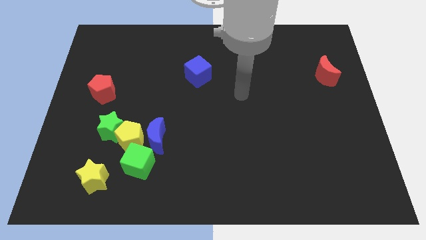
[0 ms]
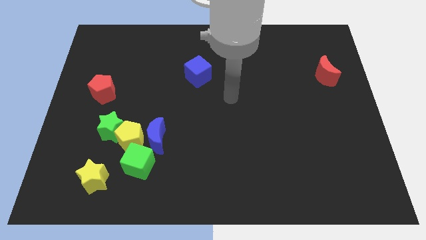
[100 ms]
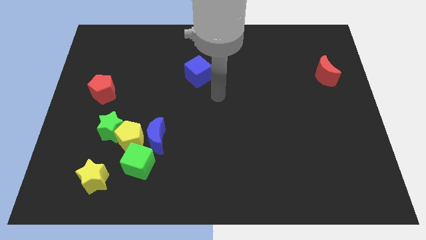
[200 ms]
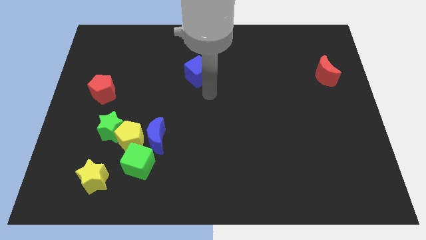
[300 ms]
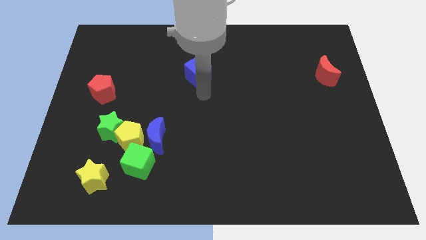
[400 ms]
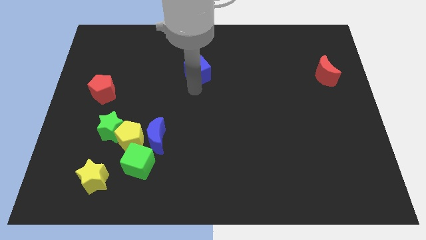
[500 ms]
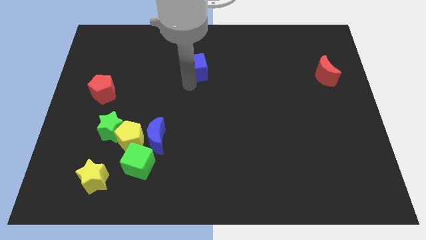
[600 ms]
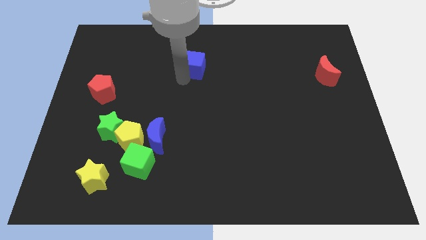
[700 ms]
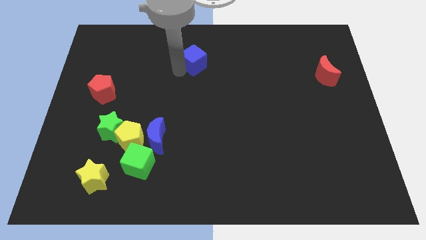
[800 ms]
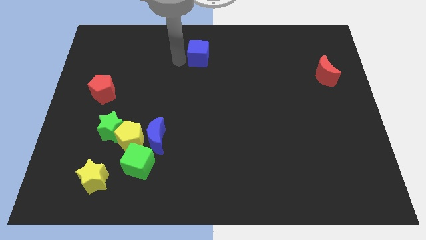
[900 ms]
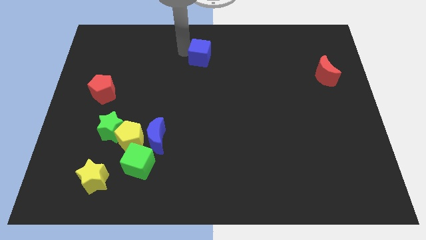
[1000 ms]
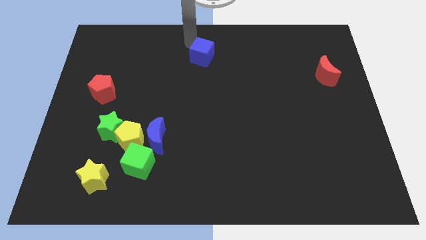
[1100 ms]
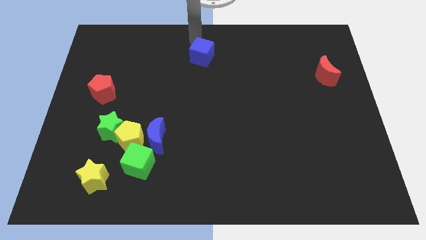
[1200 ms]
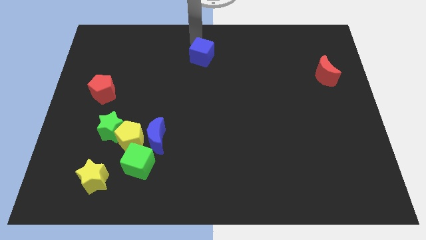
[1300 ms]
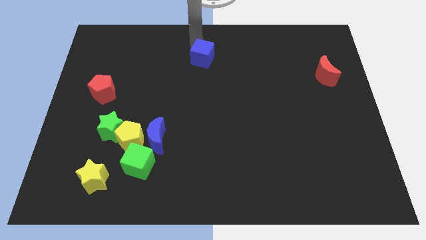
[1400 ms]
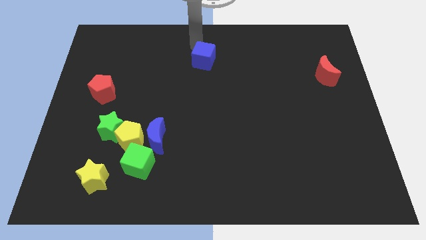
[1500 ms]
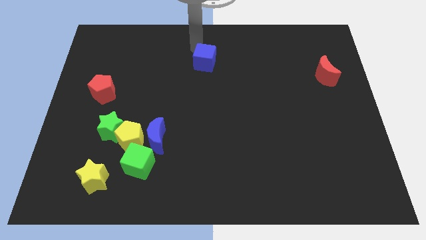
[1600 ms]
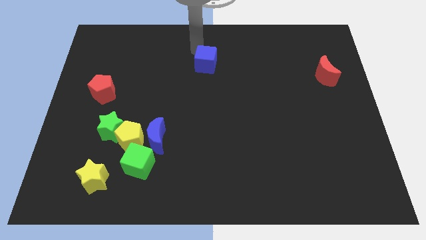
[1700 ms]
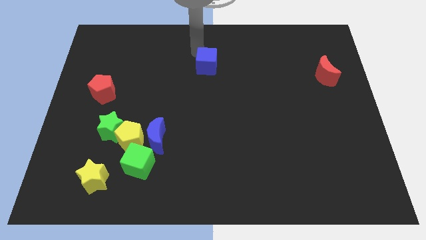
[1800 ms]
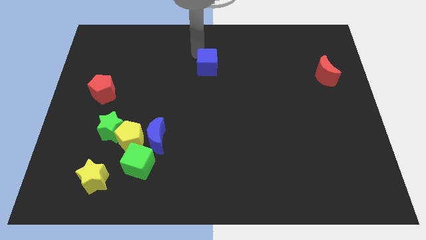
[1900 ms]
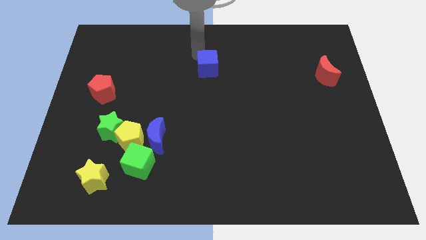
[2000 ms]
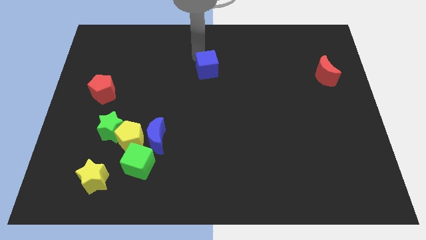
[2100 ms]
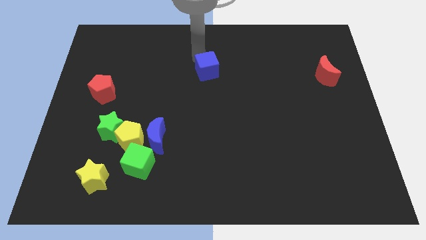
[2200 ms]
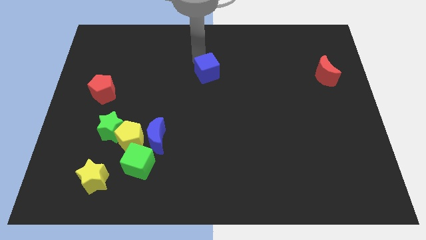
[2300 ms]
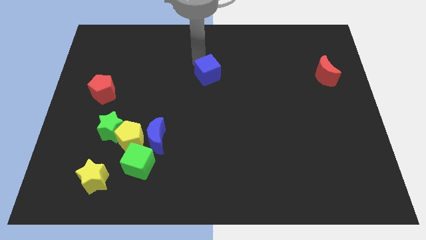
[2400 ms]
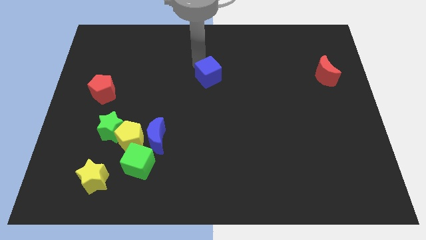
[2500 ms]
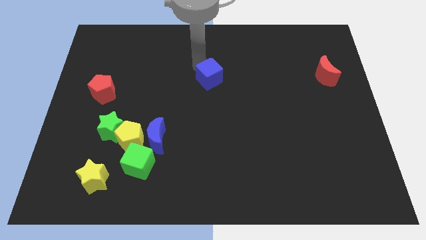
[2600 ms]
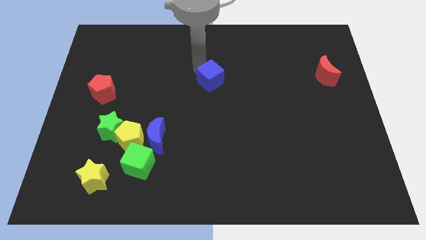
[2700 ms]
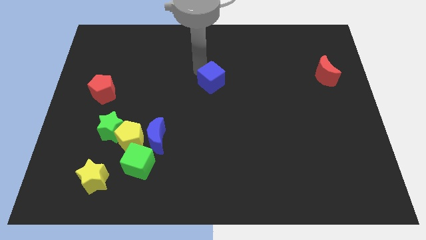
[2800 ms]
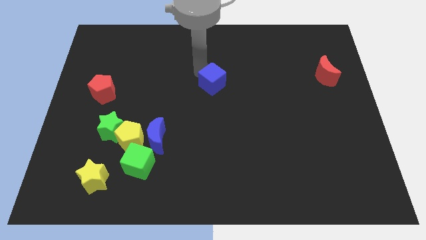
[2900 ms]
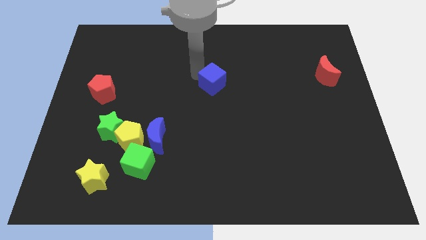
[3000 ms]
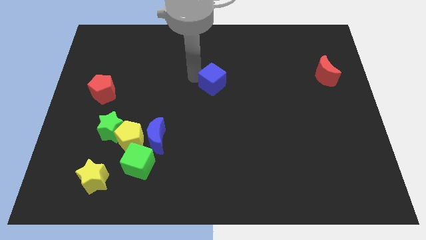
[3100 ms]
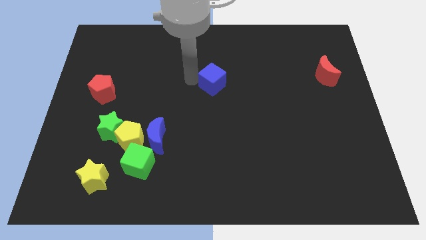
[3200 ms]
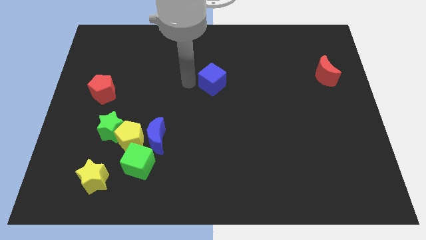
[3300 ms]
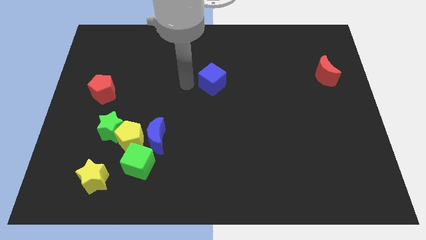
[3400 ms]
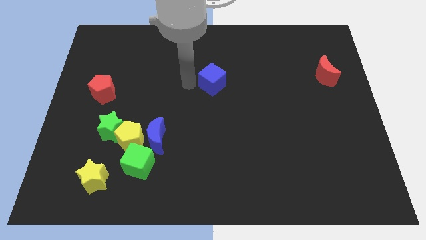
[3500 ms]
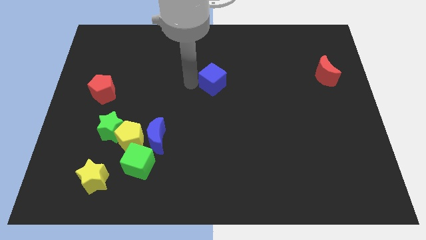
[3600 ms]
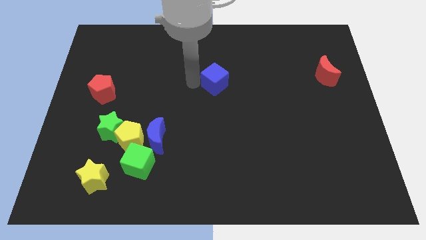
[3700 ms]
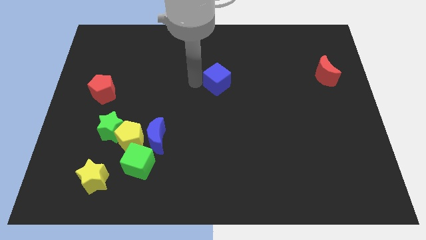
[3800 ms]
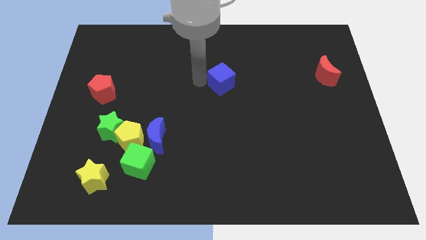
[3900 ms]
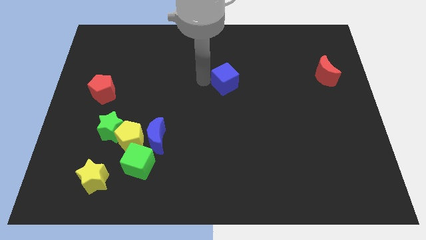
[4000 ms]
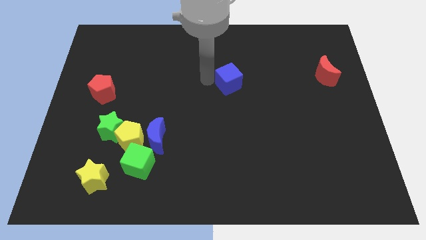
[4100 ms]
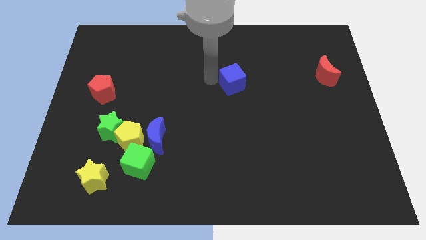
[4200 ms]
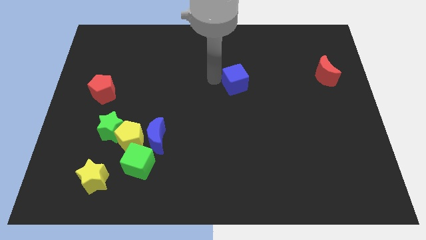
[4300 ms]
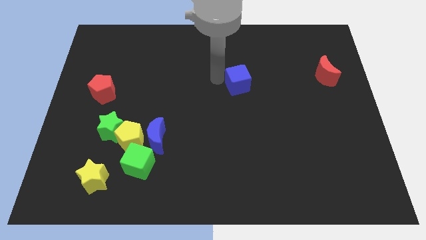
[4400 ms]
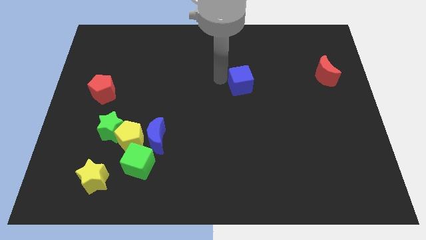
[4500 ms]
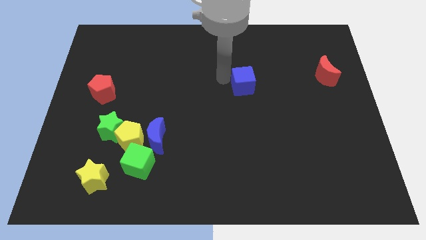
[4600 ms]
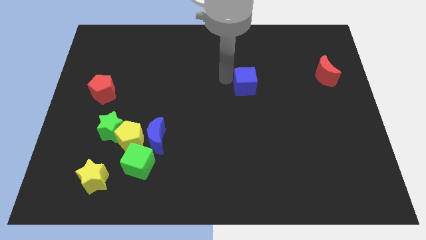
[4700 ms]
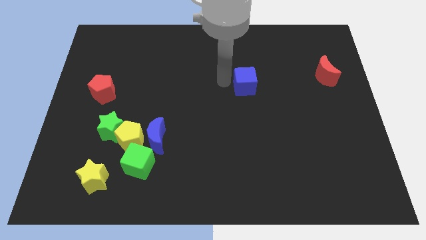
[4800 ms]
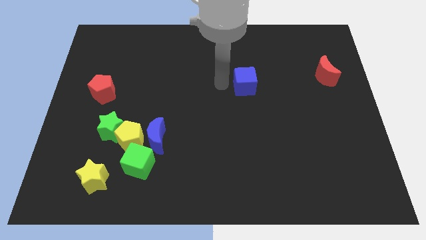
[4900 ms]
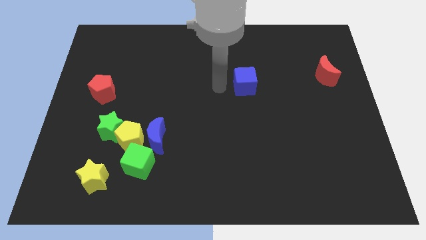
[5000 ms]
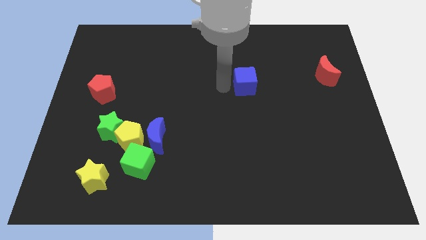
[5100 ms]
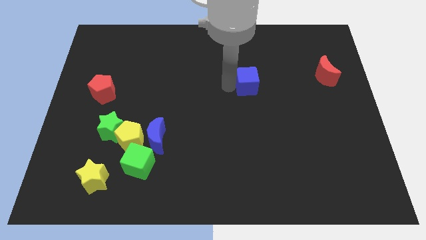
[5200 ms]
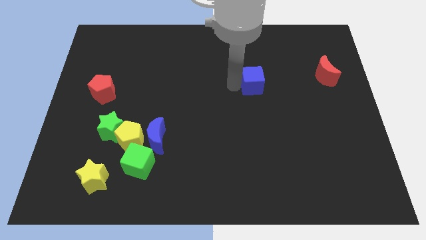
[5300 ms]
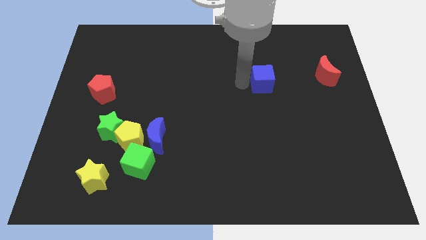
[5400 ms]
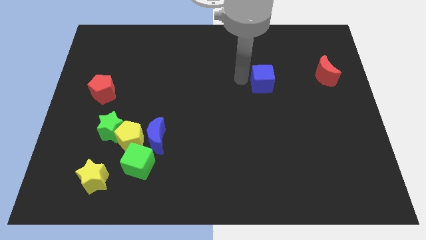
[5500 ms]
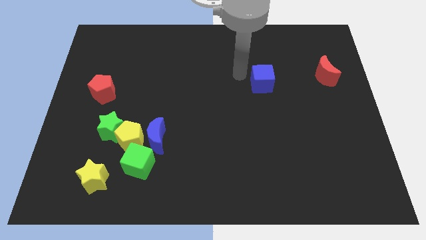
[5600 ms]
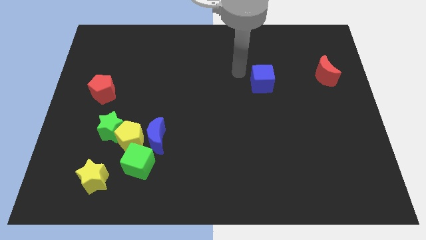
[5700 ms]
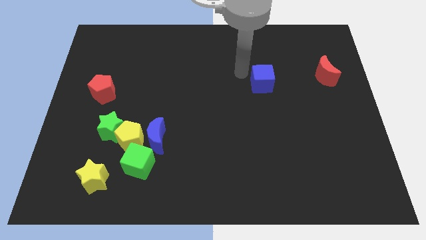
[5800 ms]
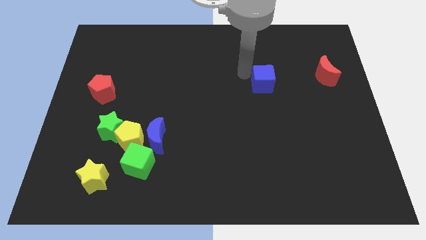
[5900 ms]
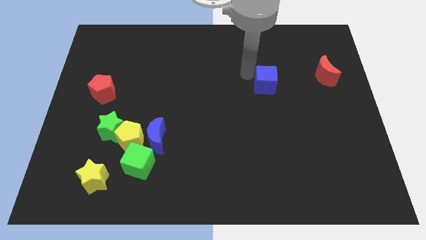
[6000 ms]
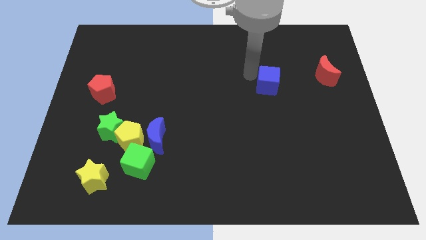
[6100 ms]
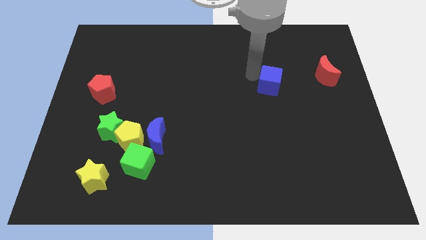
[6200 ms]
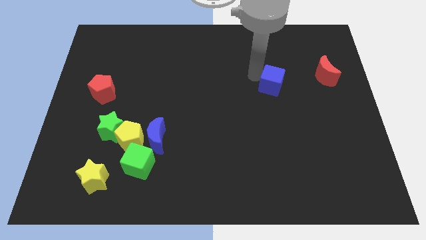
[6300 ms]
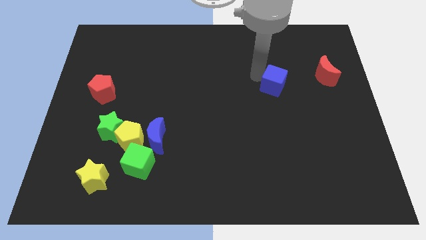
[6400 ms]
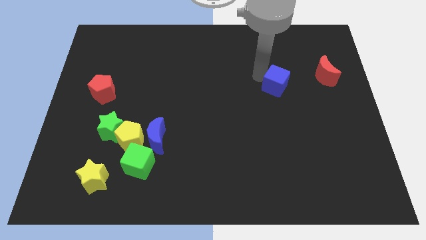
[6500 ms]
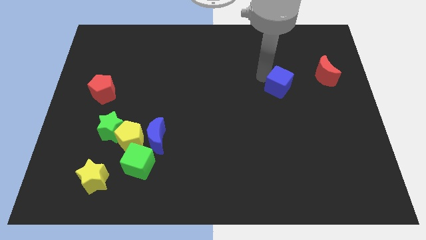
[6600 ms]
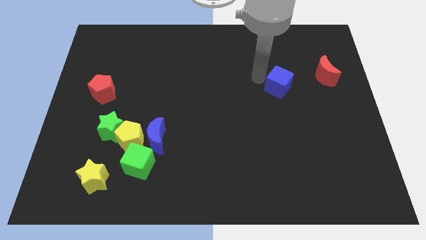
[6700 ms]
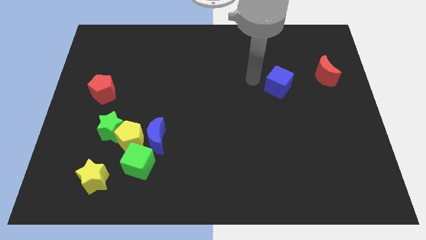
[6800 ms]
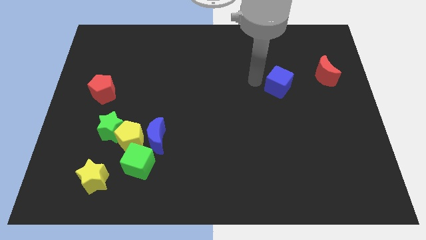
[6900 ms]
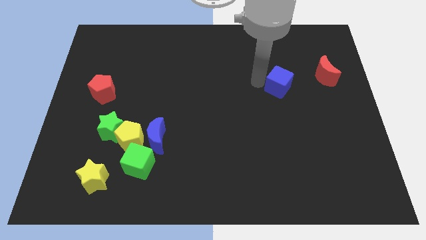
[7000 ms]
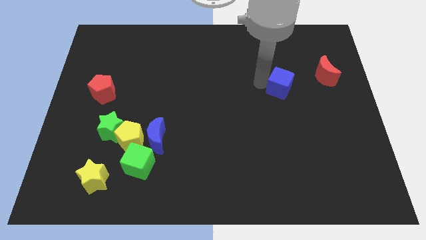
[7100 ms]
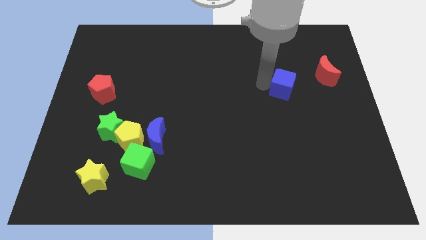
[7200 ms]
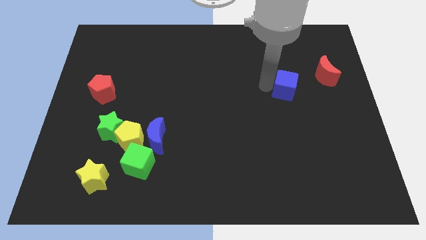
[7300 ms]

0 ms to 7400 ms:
put the blue cube to the bottom left of the red moon
